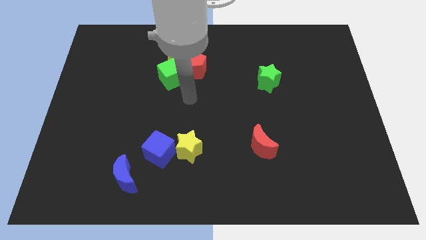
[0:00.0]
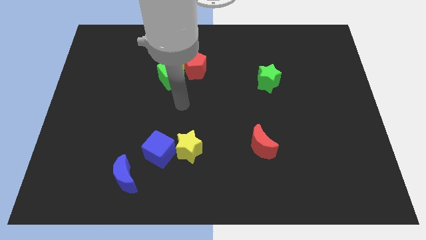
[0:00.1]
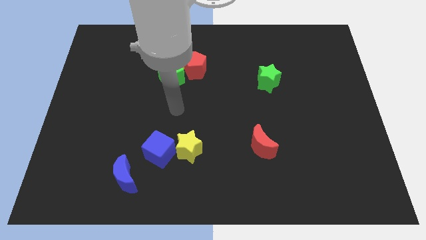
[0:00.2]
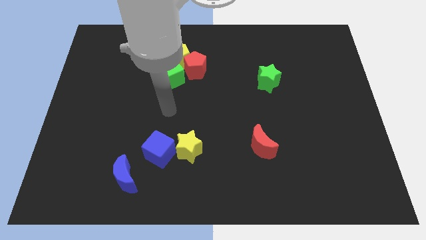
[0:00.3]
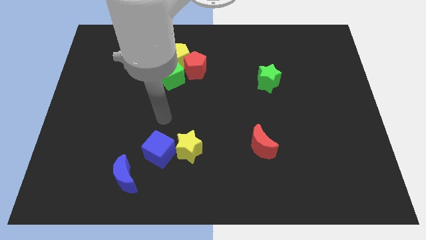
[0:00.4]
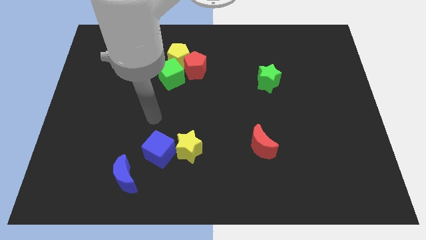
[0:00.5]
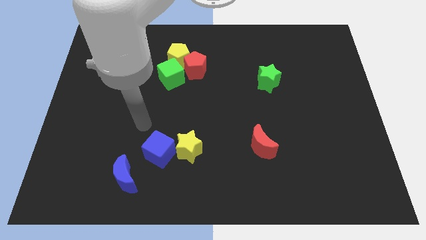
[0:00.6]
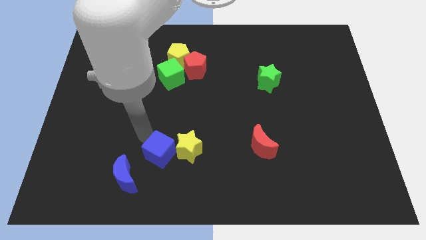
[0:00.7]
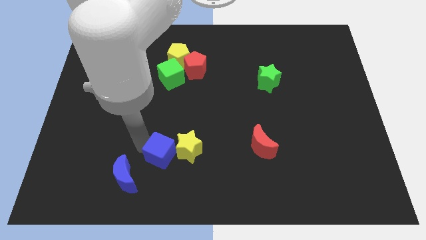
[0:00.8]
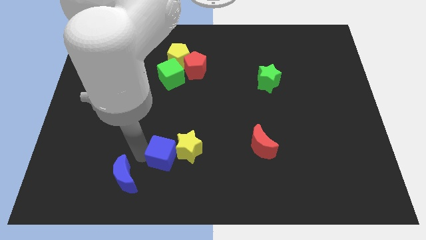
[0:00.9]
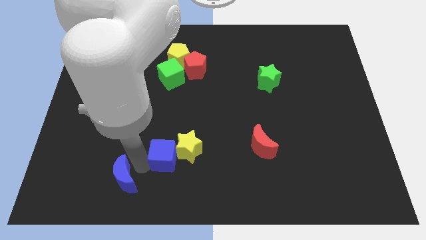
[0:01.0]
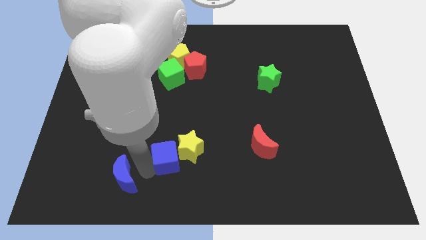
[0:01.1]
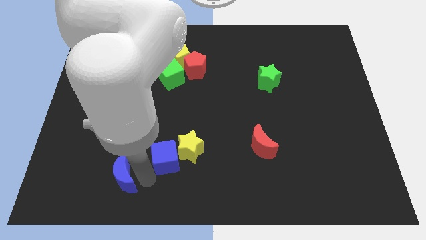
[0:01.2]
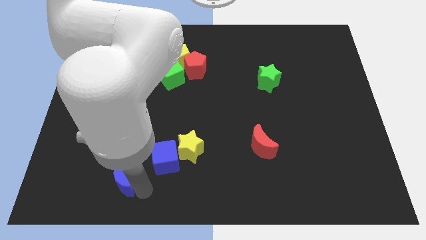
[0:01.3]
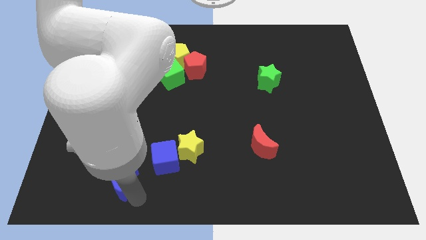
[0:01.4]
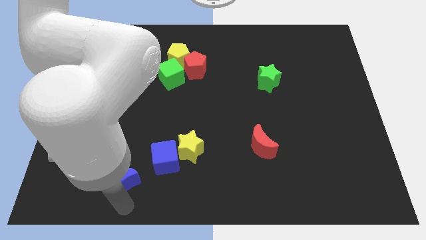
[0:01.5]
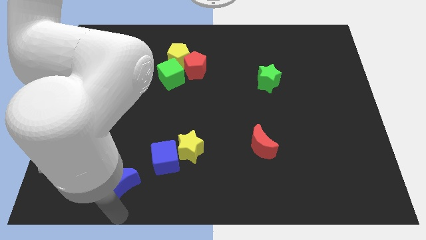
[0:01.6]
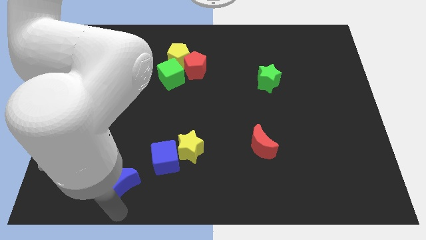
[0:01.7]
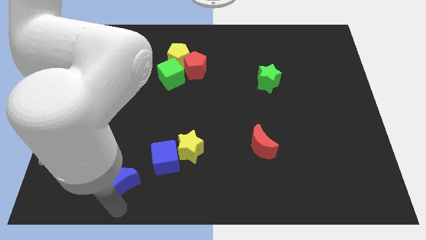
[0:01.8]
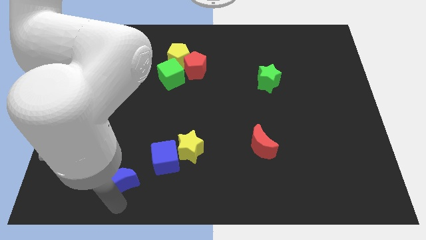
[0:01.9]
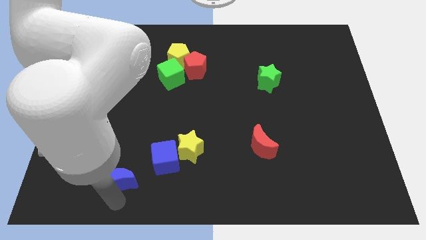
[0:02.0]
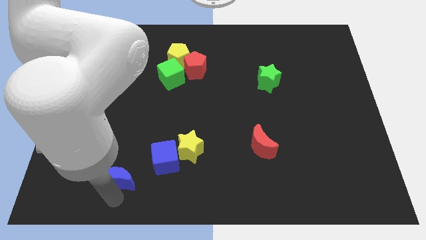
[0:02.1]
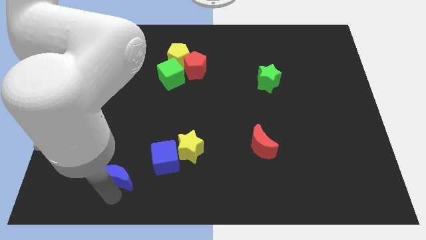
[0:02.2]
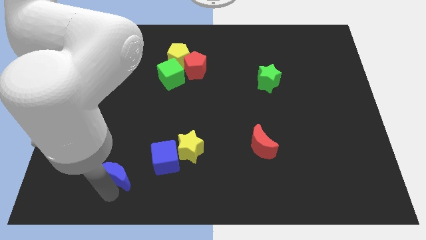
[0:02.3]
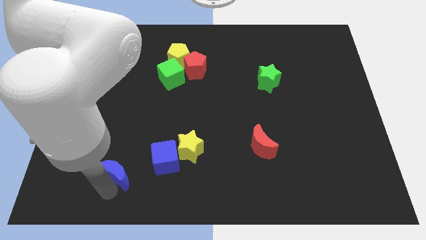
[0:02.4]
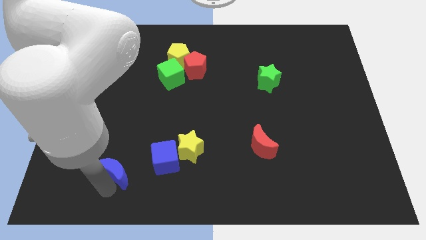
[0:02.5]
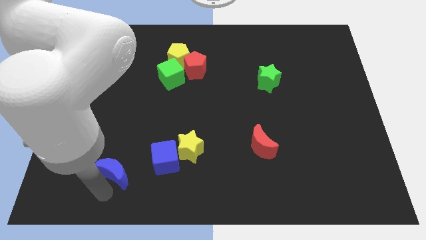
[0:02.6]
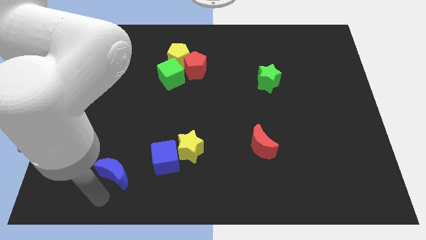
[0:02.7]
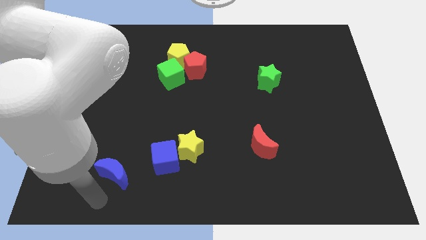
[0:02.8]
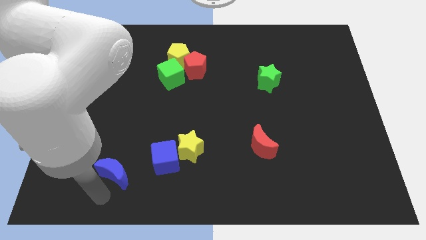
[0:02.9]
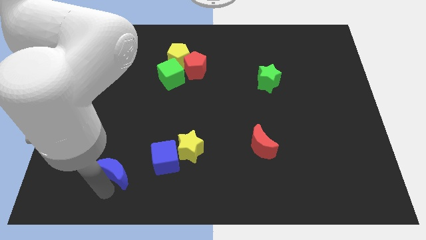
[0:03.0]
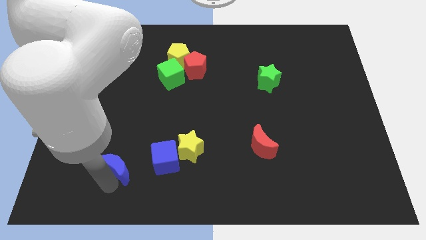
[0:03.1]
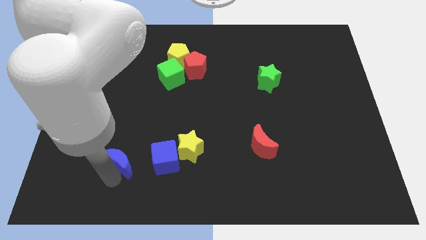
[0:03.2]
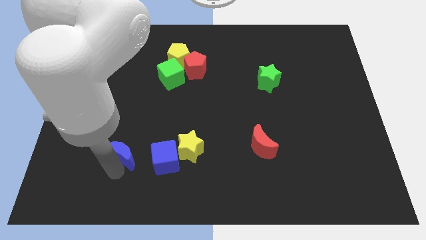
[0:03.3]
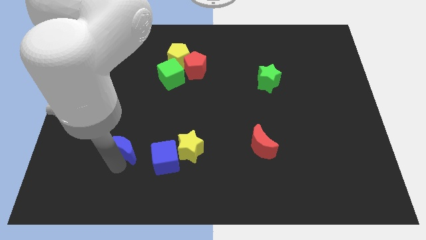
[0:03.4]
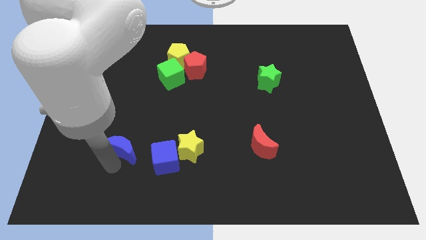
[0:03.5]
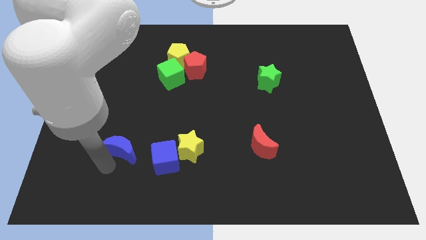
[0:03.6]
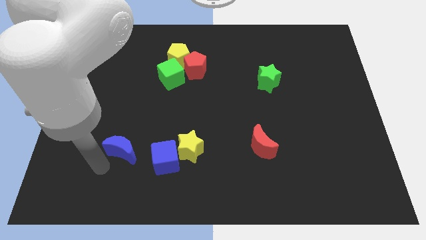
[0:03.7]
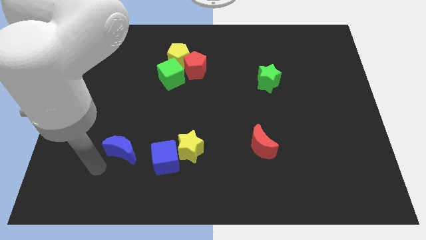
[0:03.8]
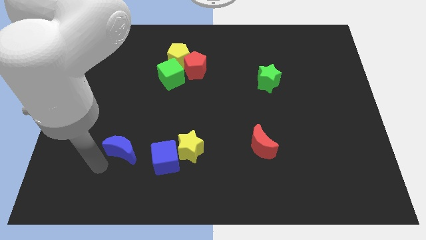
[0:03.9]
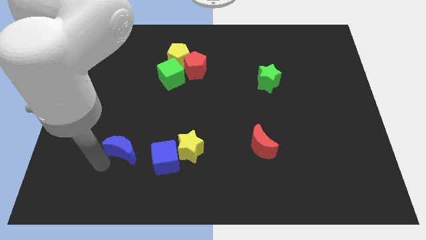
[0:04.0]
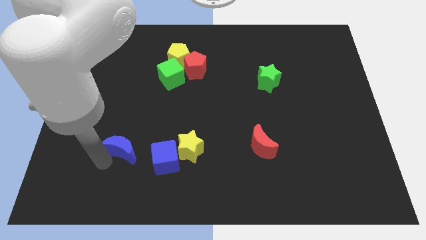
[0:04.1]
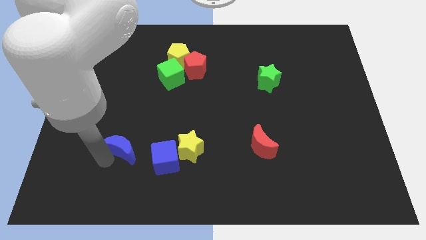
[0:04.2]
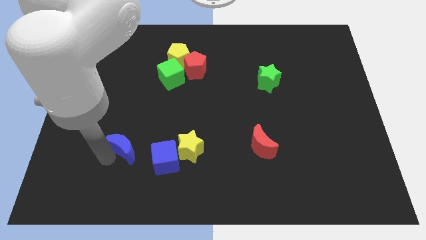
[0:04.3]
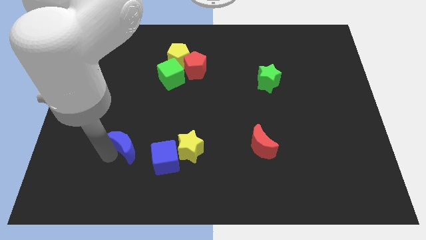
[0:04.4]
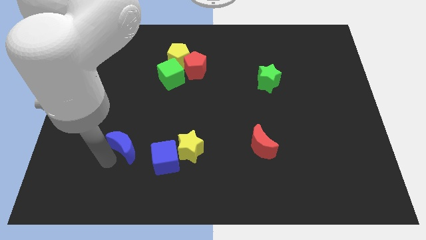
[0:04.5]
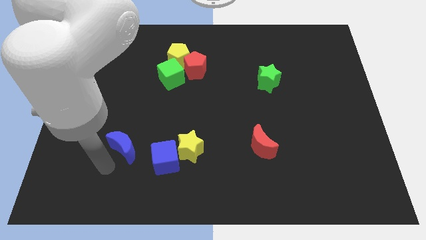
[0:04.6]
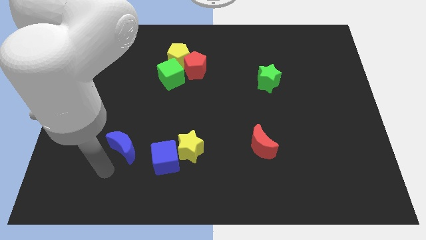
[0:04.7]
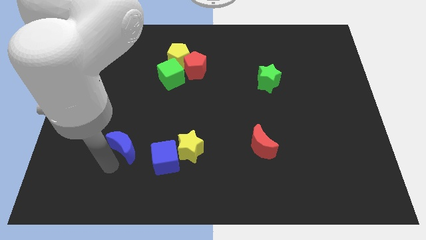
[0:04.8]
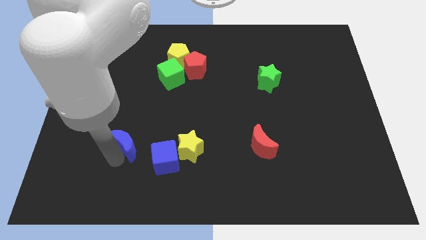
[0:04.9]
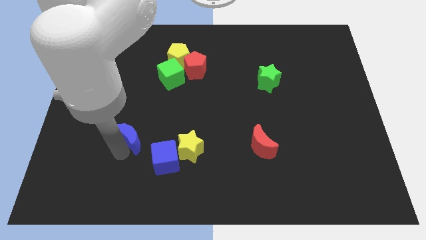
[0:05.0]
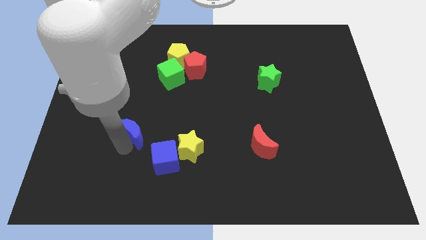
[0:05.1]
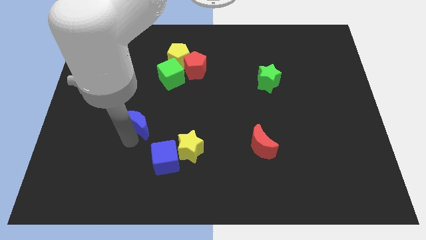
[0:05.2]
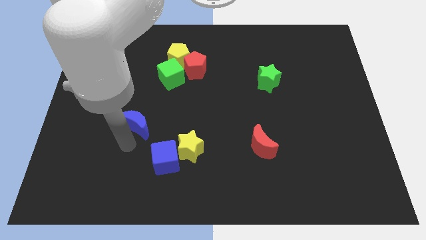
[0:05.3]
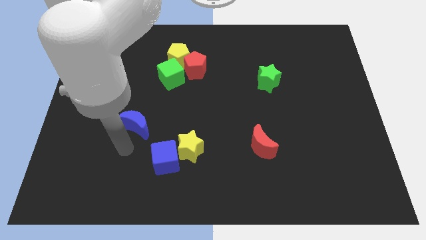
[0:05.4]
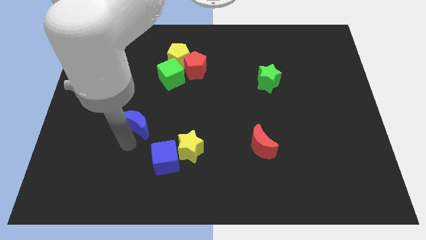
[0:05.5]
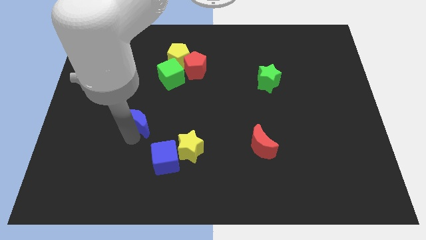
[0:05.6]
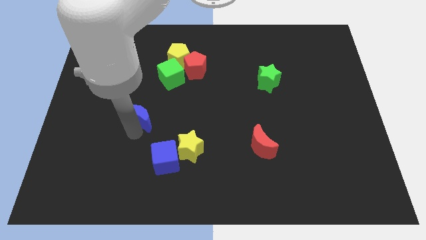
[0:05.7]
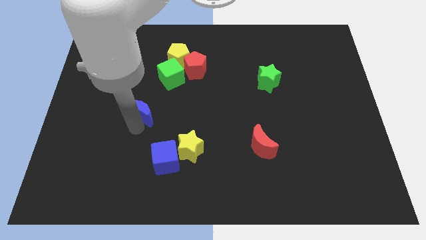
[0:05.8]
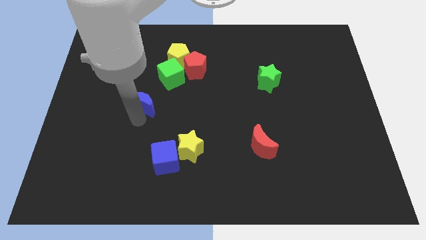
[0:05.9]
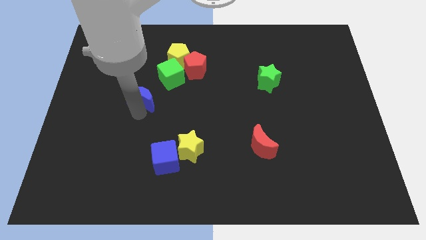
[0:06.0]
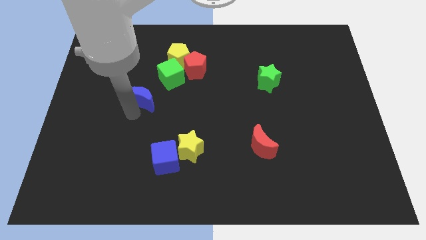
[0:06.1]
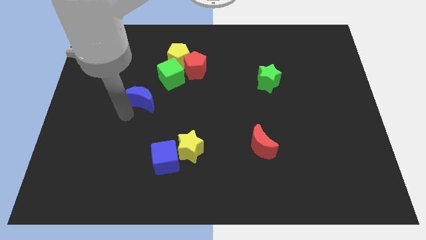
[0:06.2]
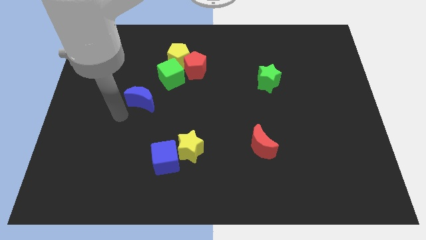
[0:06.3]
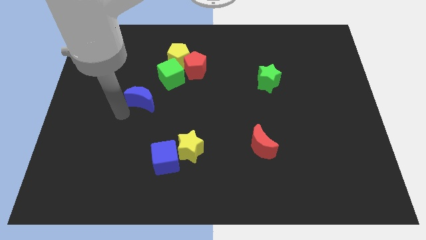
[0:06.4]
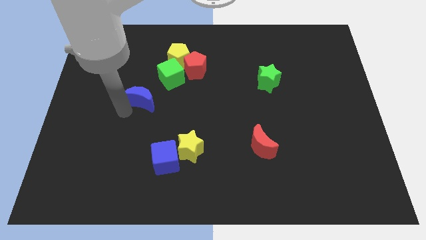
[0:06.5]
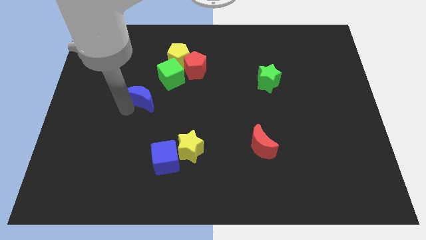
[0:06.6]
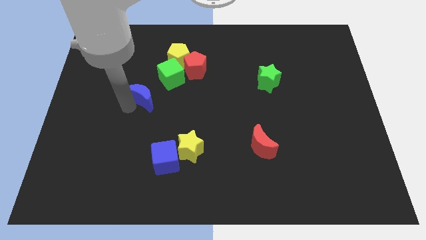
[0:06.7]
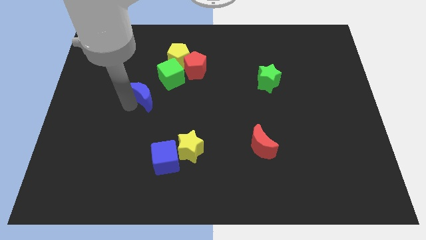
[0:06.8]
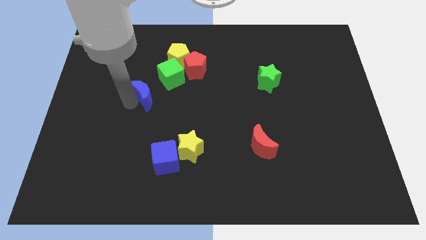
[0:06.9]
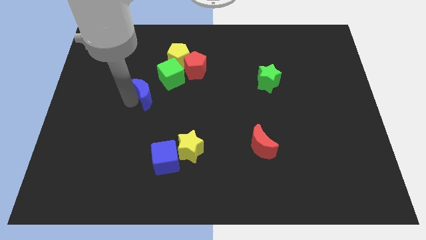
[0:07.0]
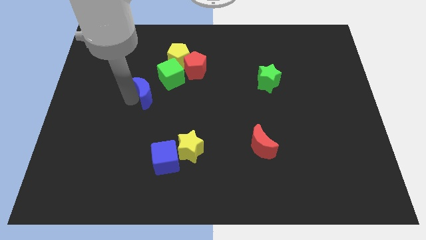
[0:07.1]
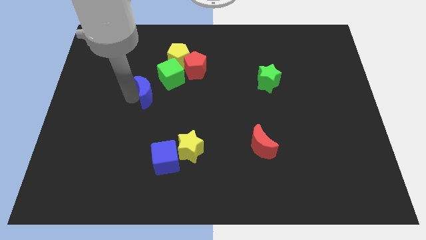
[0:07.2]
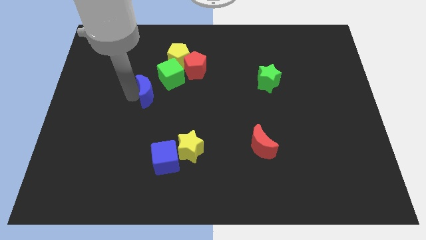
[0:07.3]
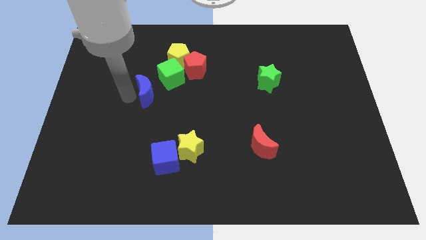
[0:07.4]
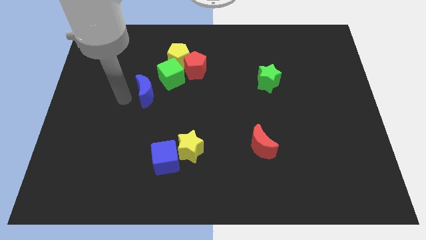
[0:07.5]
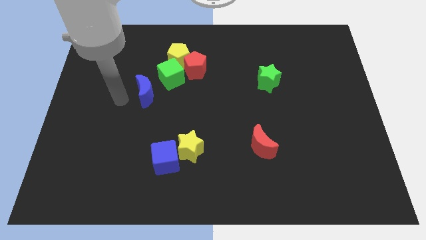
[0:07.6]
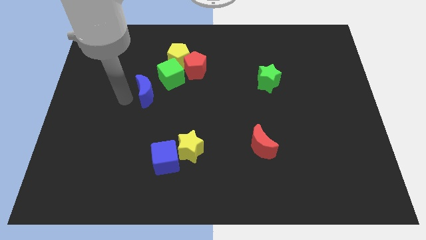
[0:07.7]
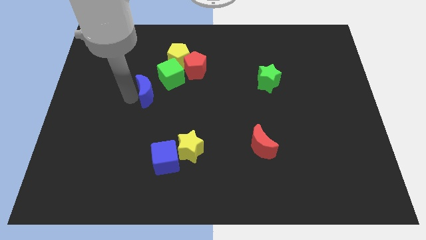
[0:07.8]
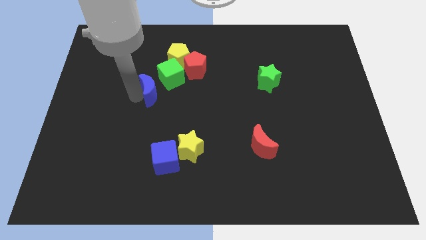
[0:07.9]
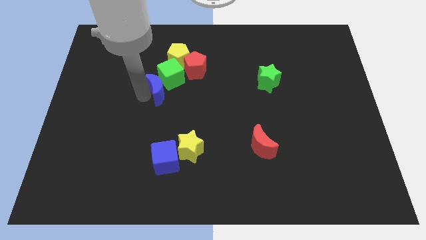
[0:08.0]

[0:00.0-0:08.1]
put the blue moon next to the green cube
